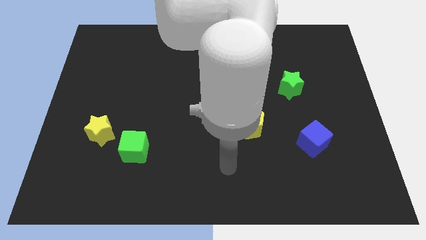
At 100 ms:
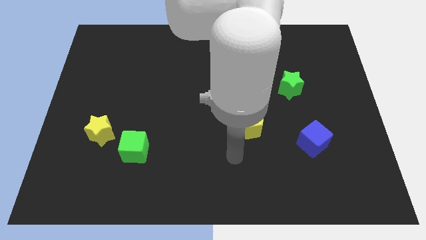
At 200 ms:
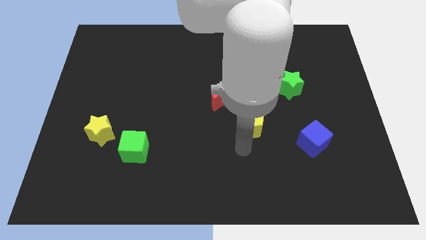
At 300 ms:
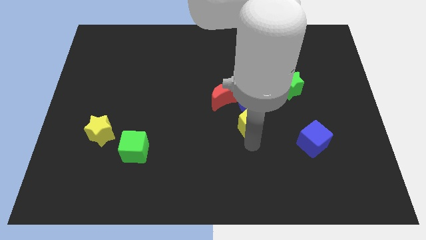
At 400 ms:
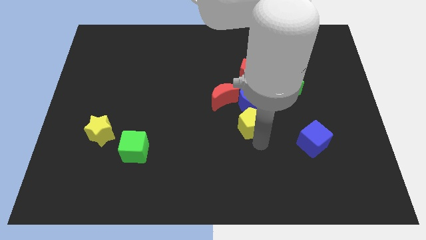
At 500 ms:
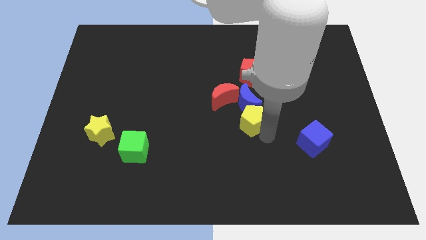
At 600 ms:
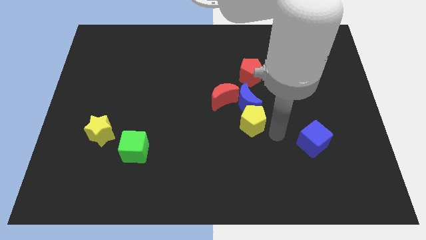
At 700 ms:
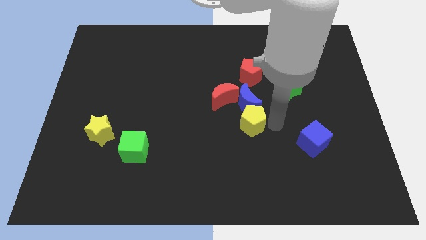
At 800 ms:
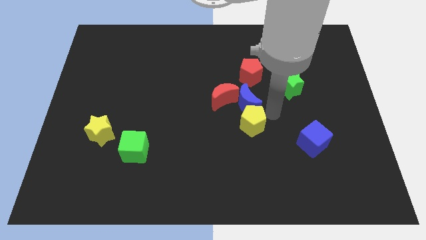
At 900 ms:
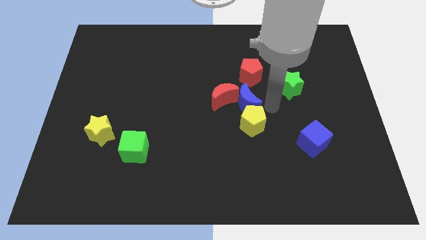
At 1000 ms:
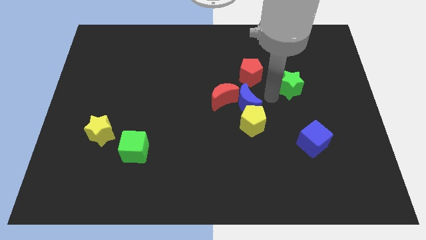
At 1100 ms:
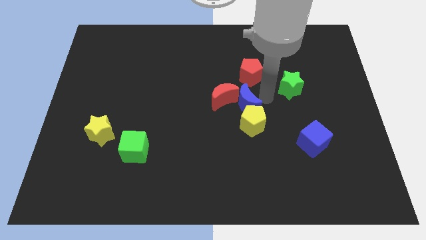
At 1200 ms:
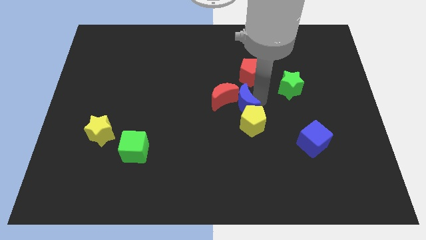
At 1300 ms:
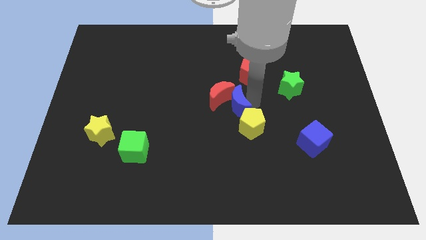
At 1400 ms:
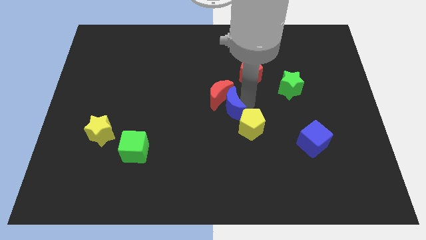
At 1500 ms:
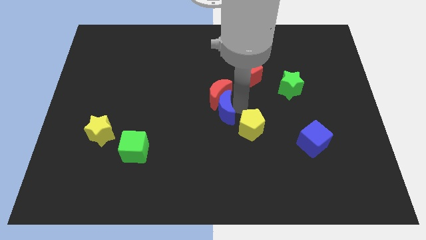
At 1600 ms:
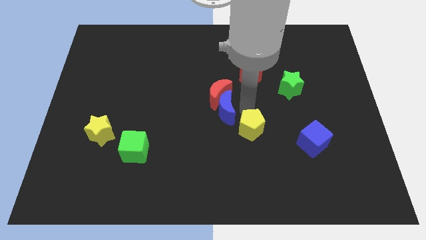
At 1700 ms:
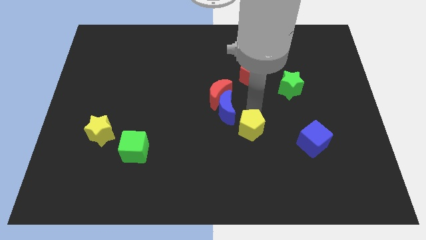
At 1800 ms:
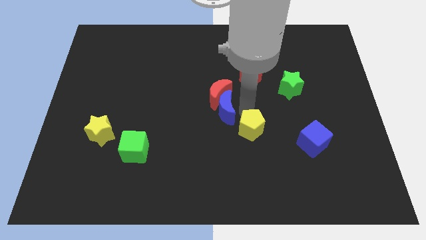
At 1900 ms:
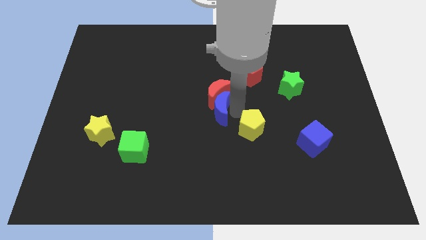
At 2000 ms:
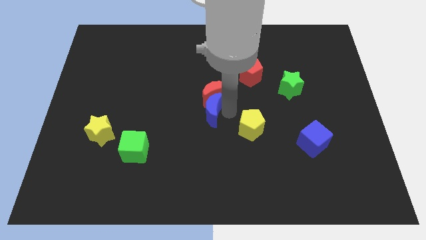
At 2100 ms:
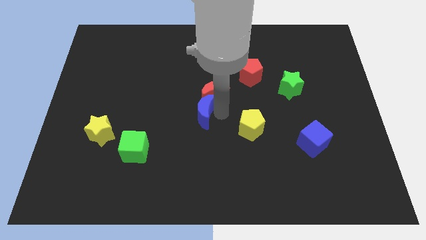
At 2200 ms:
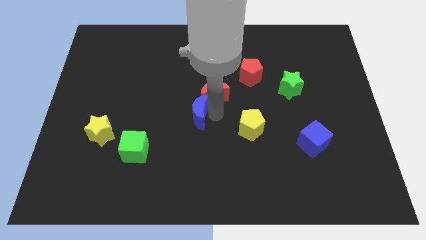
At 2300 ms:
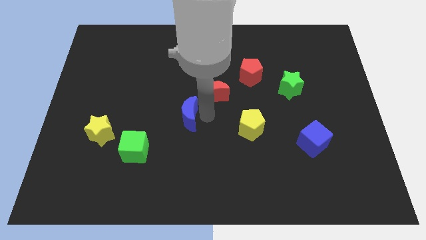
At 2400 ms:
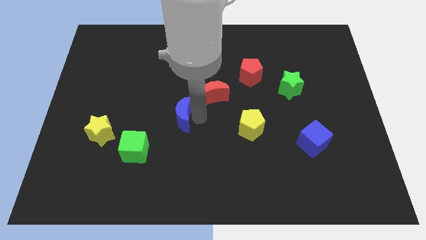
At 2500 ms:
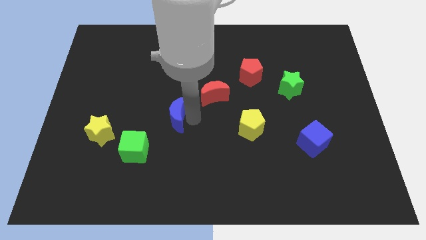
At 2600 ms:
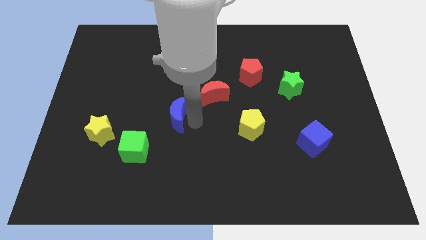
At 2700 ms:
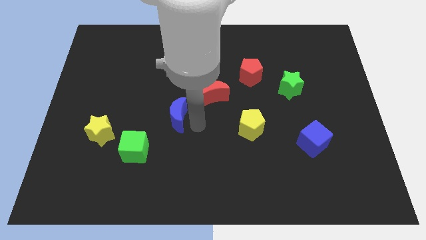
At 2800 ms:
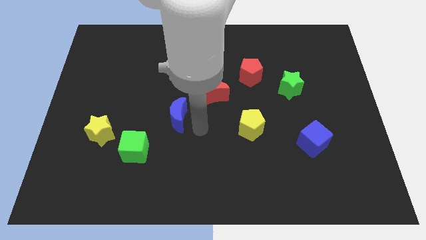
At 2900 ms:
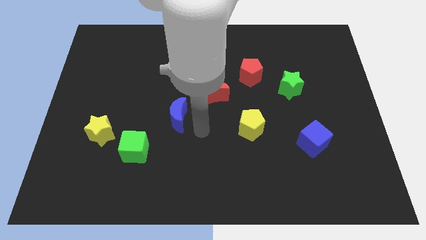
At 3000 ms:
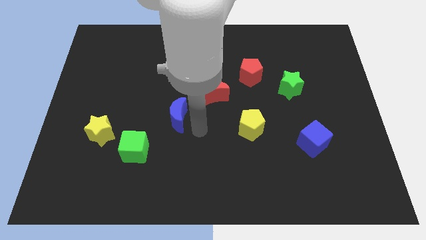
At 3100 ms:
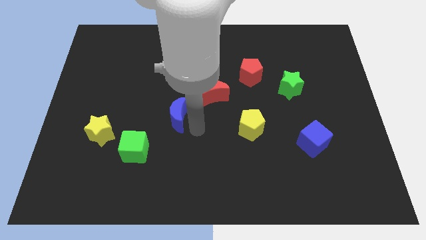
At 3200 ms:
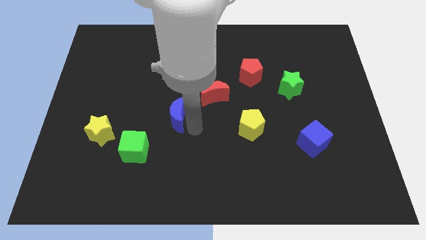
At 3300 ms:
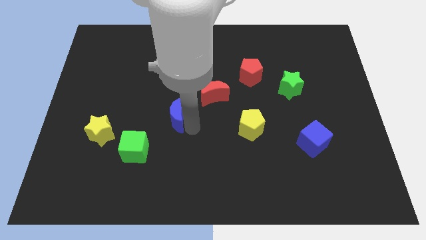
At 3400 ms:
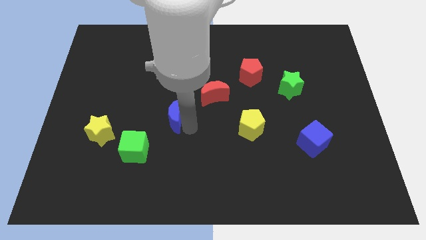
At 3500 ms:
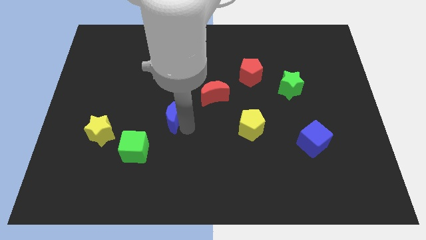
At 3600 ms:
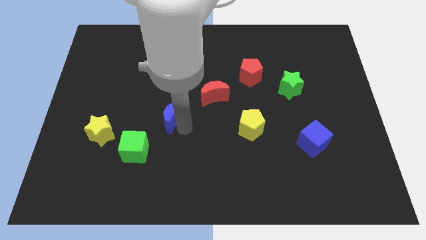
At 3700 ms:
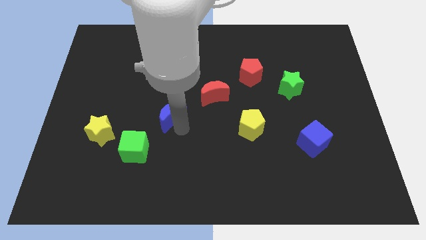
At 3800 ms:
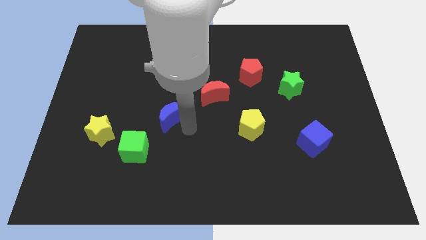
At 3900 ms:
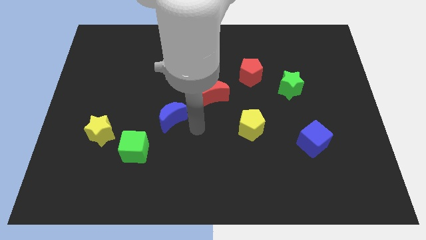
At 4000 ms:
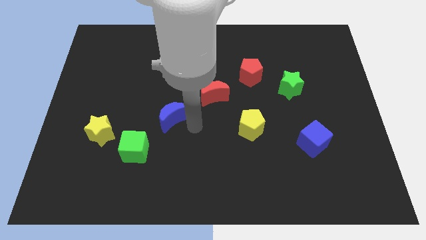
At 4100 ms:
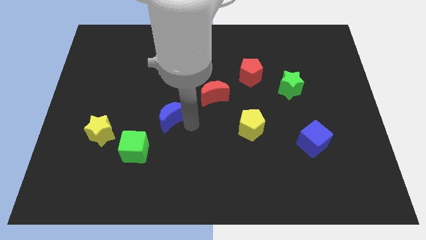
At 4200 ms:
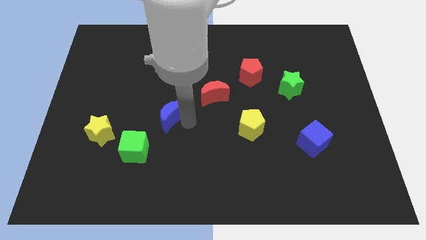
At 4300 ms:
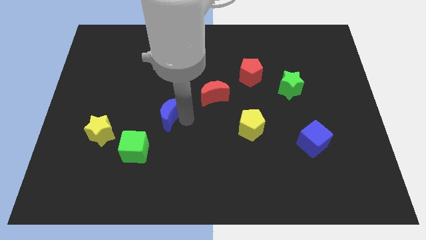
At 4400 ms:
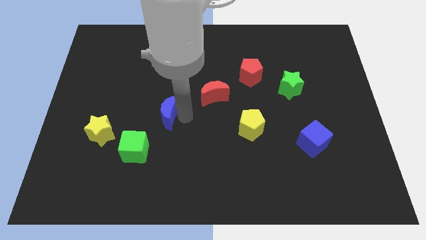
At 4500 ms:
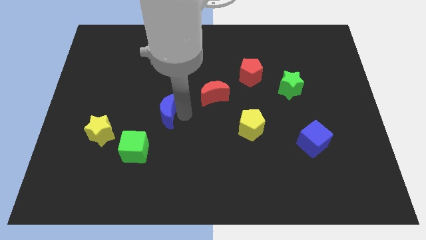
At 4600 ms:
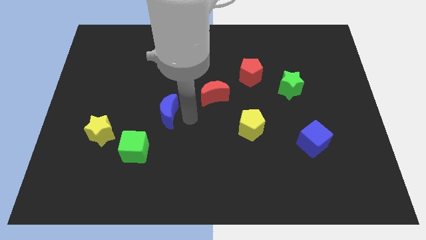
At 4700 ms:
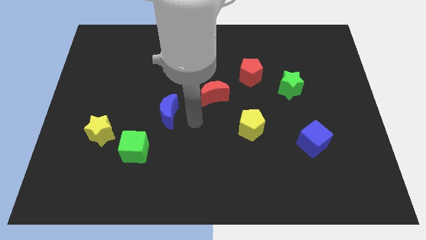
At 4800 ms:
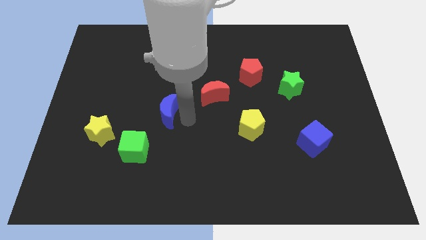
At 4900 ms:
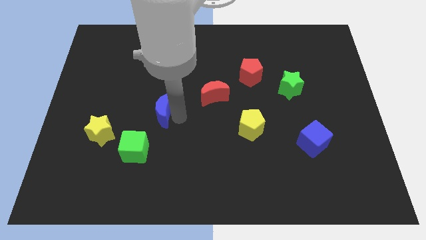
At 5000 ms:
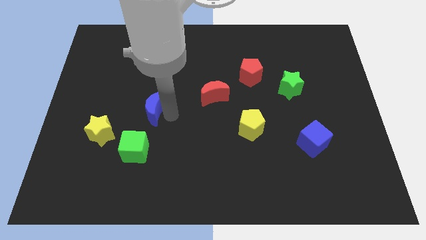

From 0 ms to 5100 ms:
slide the blue moon left

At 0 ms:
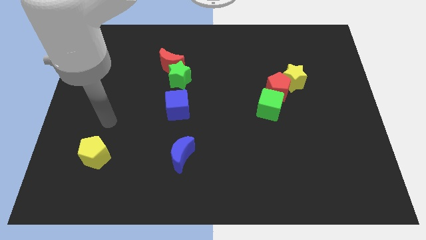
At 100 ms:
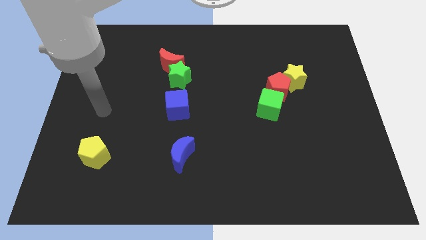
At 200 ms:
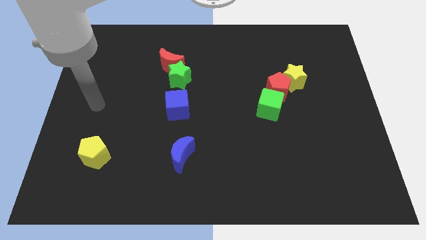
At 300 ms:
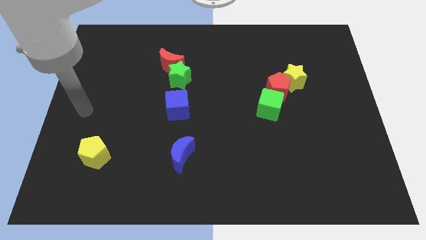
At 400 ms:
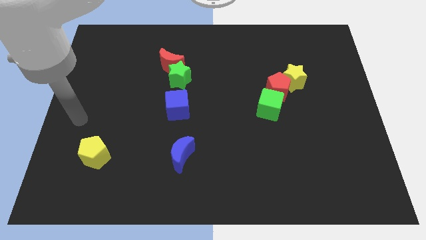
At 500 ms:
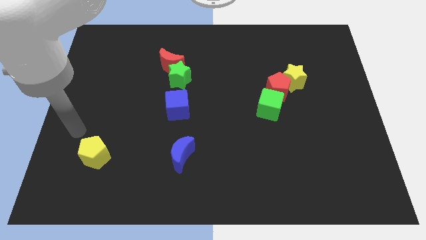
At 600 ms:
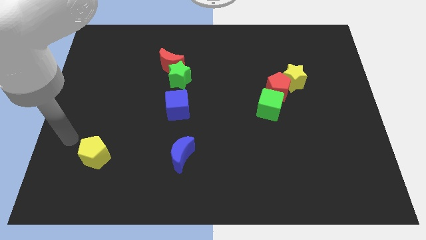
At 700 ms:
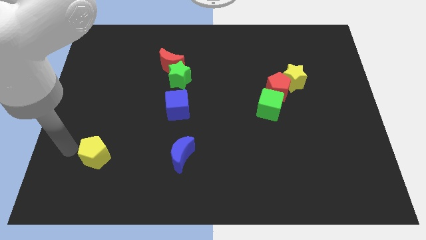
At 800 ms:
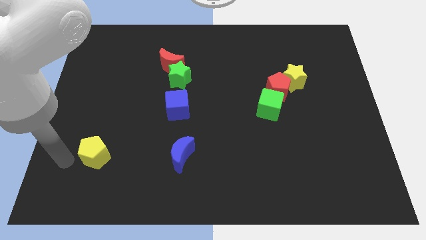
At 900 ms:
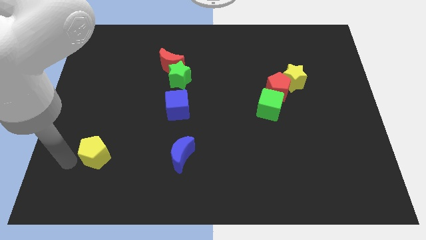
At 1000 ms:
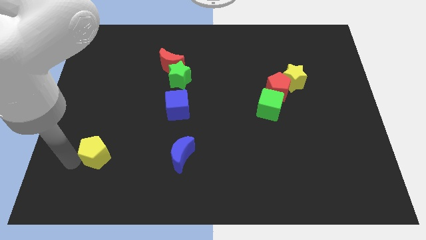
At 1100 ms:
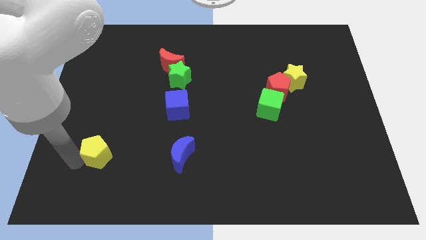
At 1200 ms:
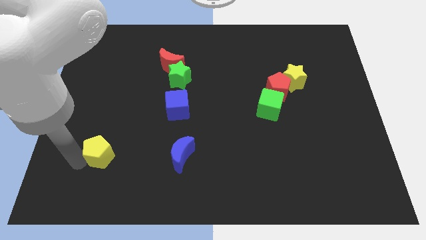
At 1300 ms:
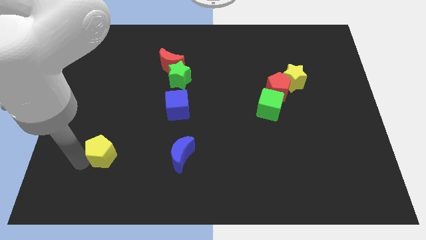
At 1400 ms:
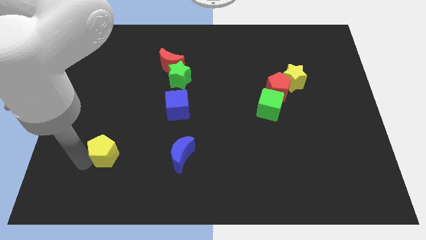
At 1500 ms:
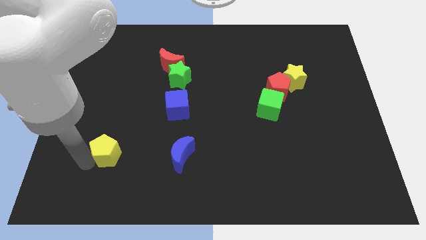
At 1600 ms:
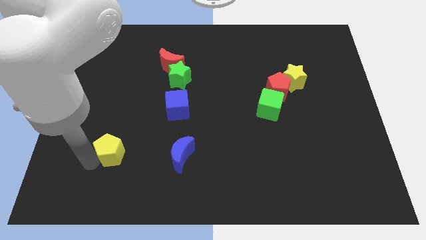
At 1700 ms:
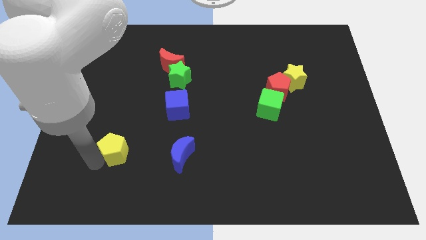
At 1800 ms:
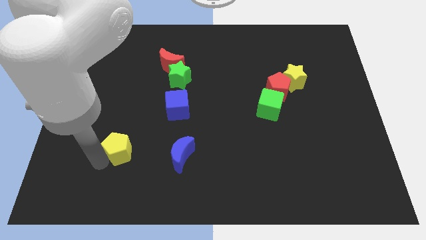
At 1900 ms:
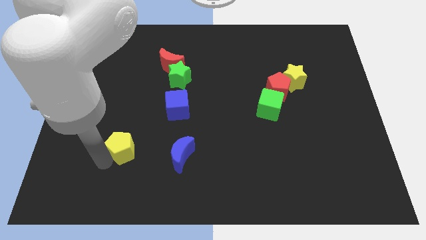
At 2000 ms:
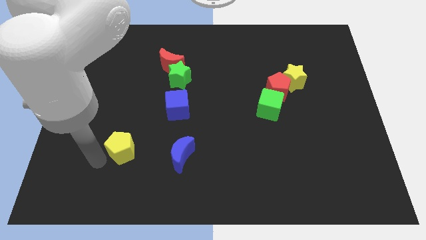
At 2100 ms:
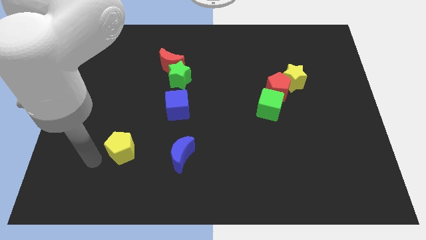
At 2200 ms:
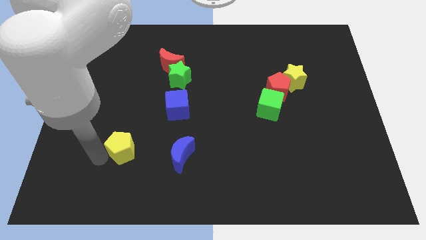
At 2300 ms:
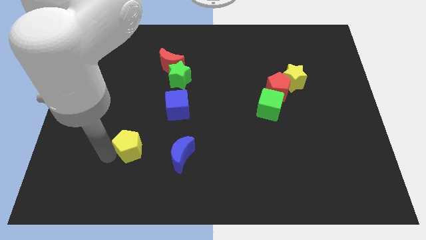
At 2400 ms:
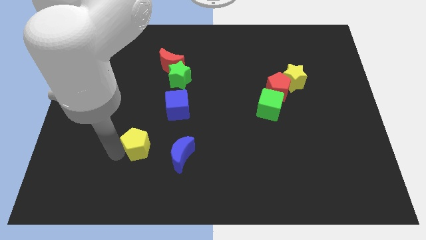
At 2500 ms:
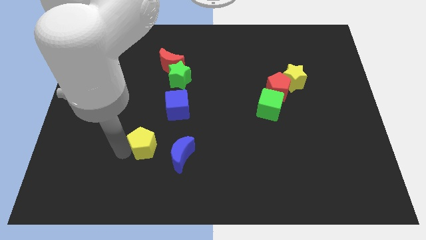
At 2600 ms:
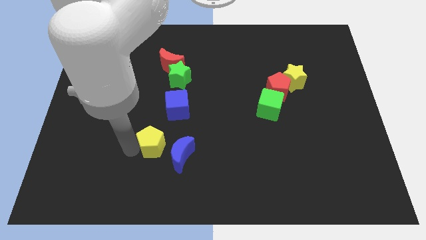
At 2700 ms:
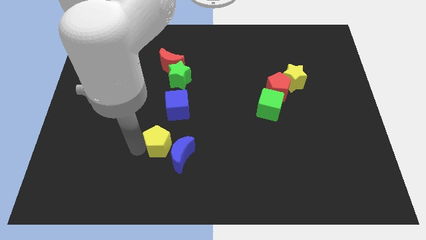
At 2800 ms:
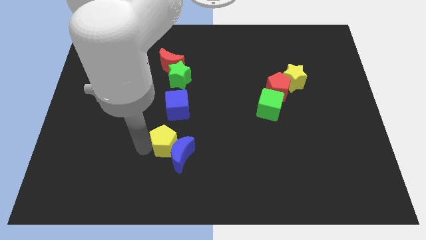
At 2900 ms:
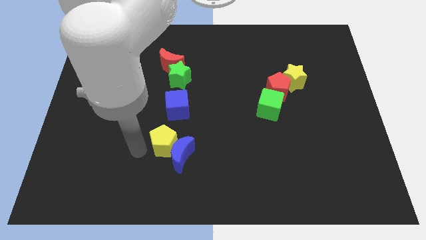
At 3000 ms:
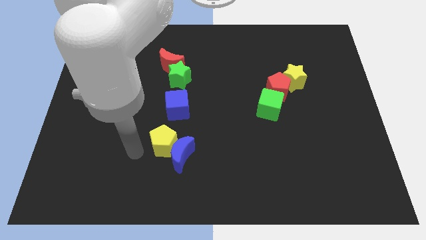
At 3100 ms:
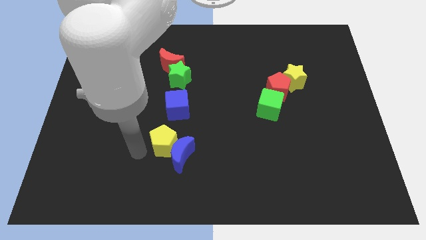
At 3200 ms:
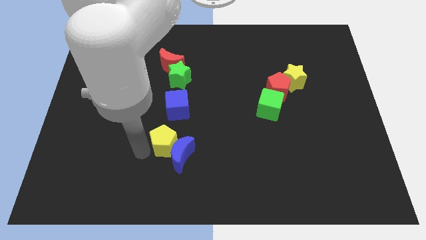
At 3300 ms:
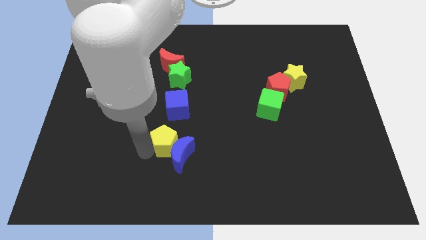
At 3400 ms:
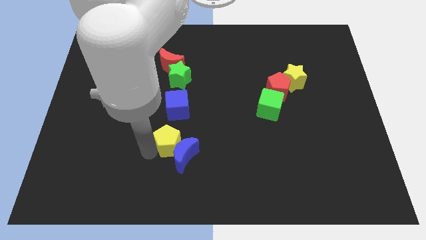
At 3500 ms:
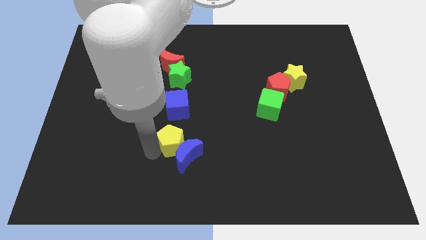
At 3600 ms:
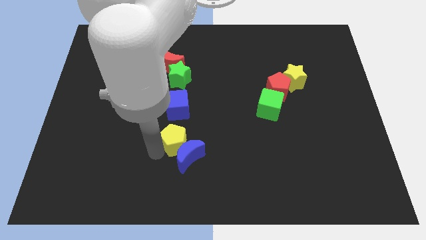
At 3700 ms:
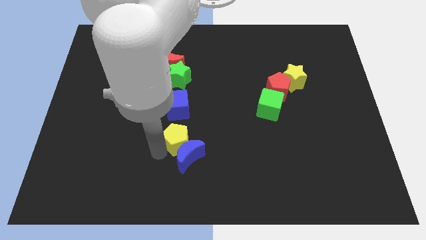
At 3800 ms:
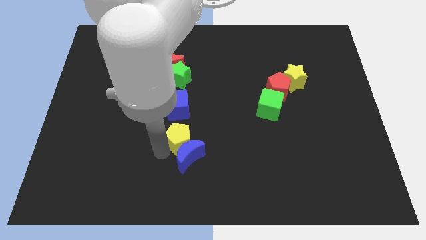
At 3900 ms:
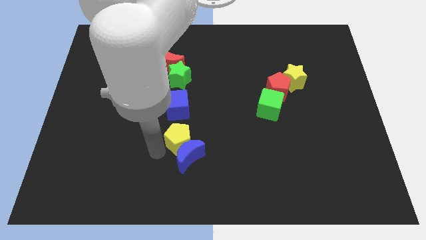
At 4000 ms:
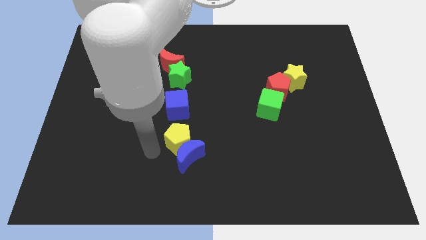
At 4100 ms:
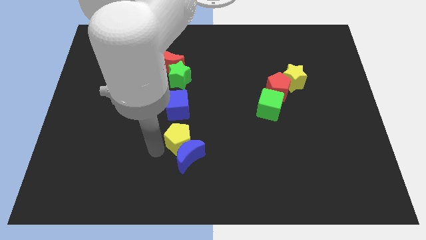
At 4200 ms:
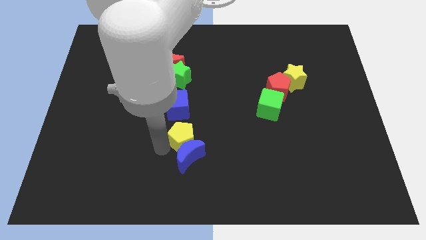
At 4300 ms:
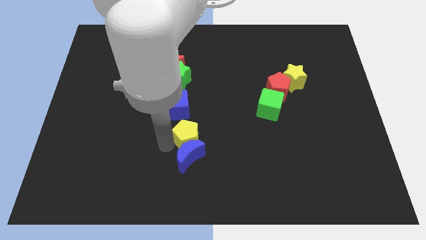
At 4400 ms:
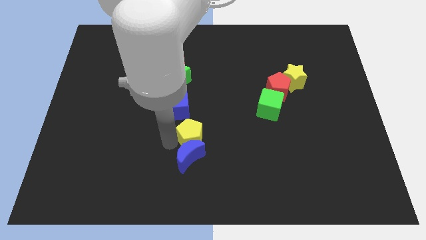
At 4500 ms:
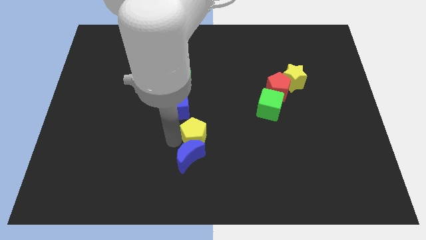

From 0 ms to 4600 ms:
move the yellow pentagon to the right
